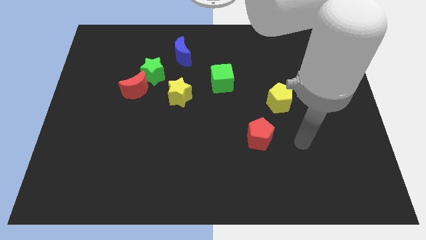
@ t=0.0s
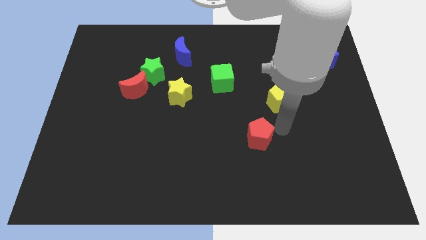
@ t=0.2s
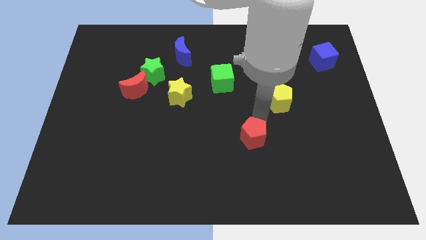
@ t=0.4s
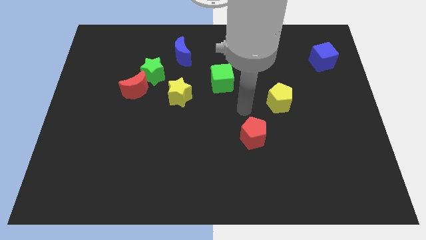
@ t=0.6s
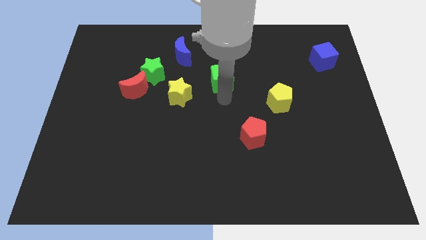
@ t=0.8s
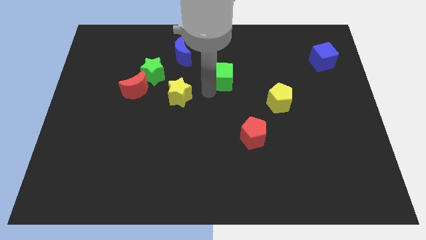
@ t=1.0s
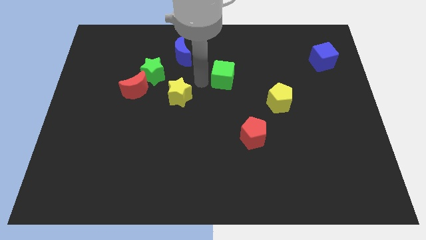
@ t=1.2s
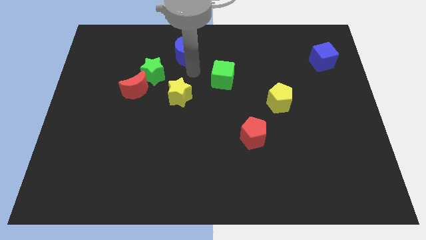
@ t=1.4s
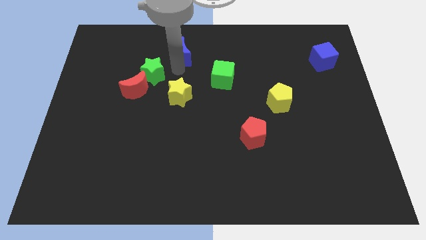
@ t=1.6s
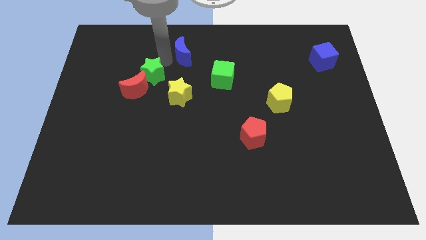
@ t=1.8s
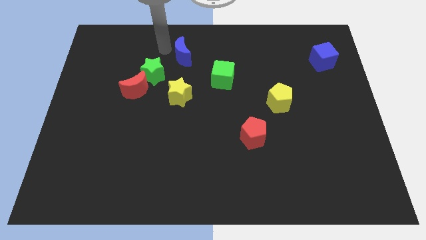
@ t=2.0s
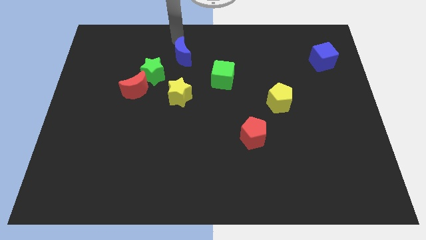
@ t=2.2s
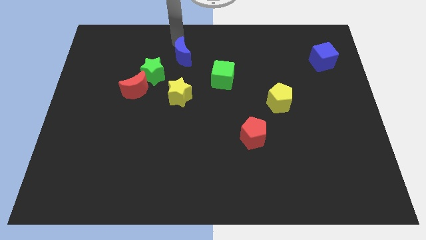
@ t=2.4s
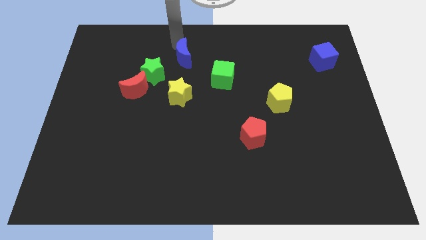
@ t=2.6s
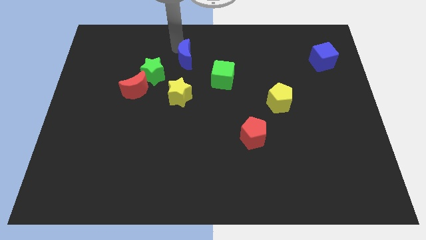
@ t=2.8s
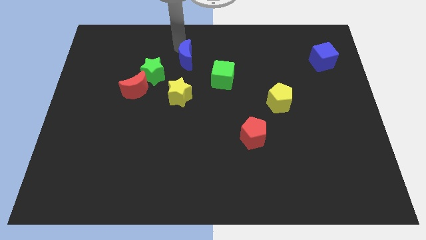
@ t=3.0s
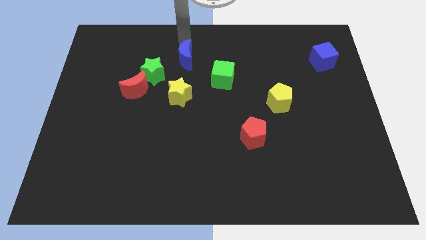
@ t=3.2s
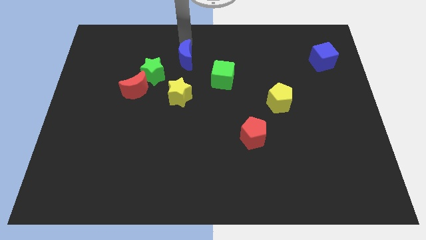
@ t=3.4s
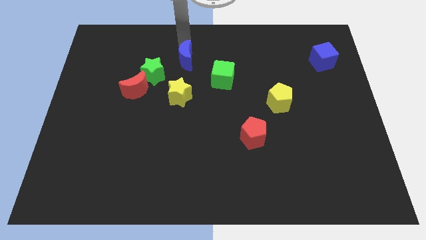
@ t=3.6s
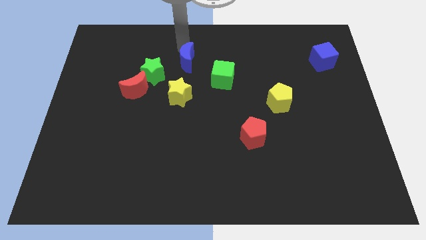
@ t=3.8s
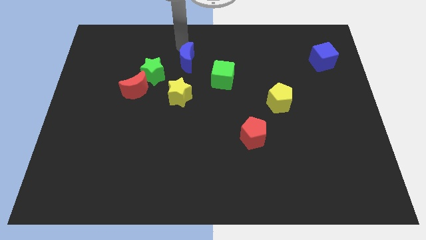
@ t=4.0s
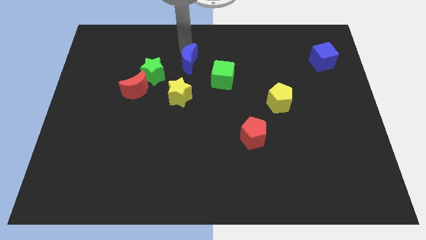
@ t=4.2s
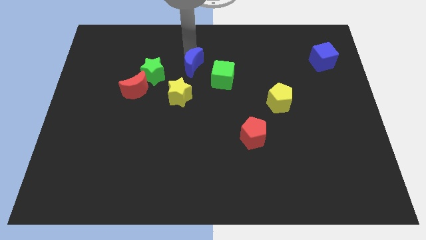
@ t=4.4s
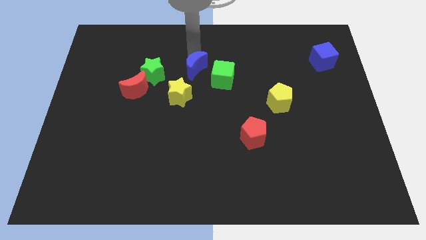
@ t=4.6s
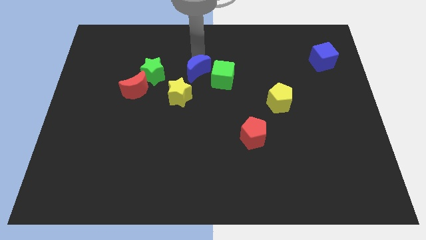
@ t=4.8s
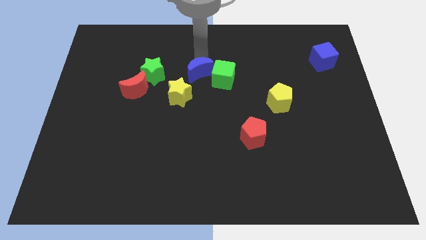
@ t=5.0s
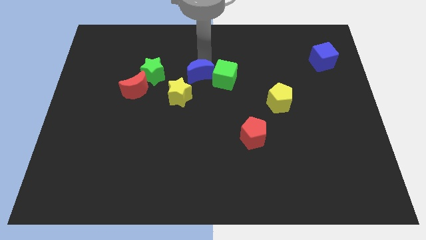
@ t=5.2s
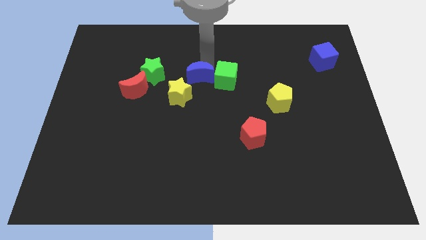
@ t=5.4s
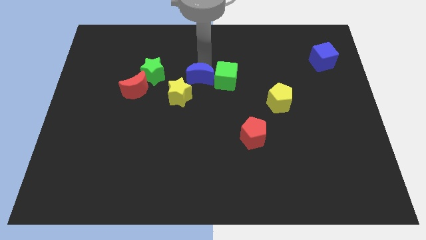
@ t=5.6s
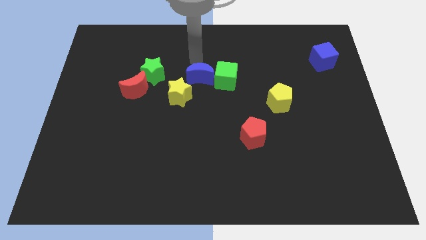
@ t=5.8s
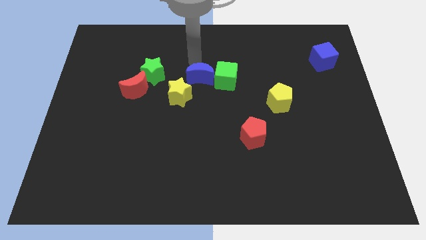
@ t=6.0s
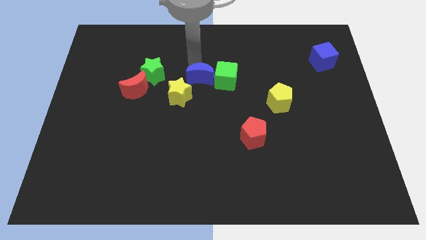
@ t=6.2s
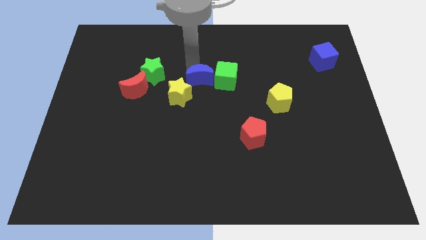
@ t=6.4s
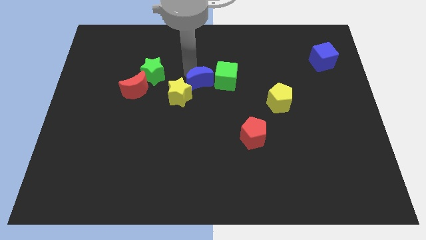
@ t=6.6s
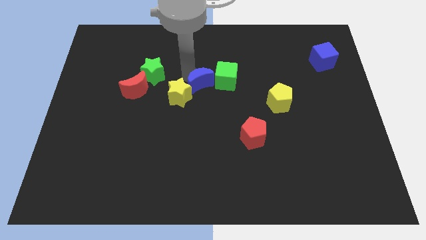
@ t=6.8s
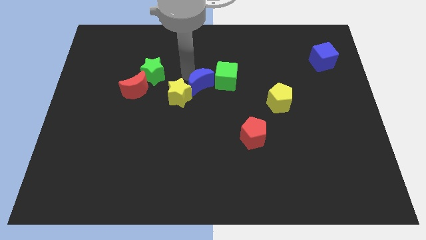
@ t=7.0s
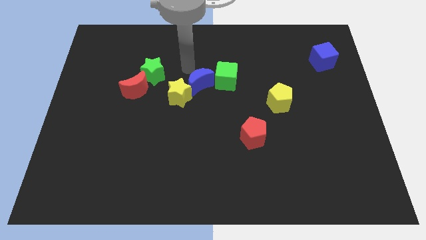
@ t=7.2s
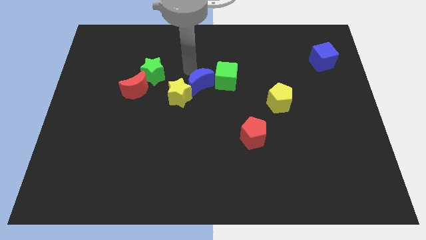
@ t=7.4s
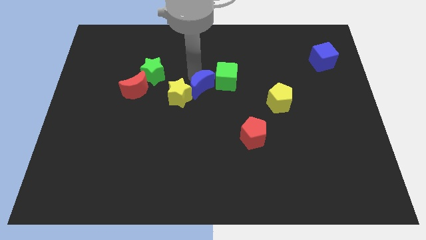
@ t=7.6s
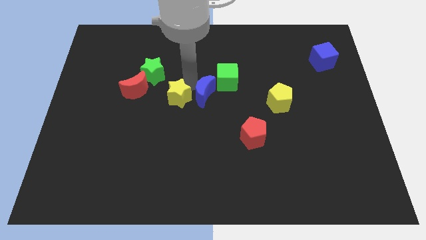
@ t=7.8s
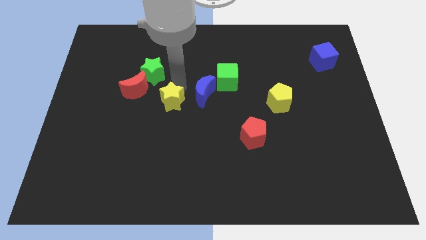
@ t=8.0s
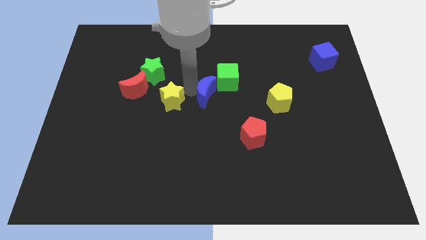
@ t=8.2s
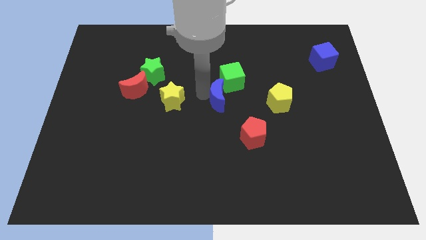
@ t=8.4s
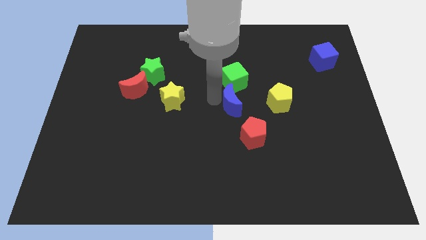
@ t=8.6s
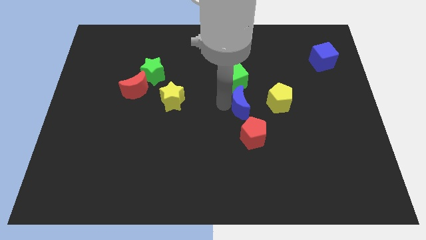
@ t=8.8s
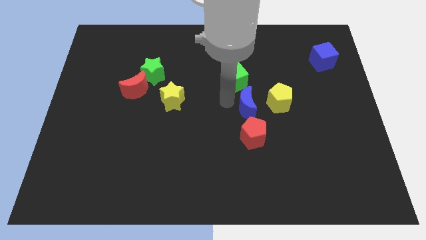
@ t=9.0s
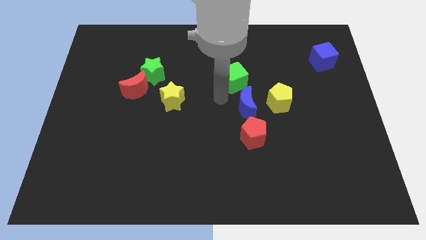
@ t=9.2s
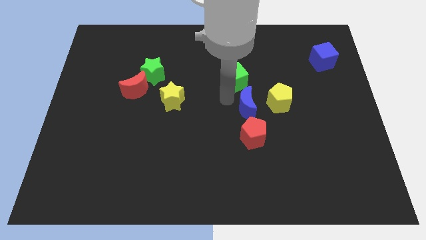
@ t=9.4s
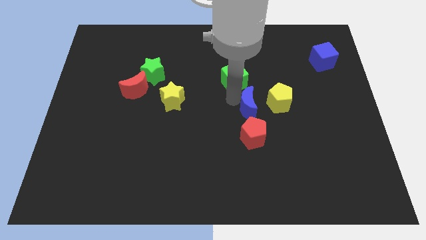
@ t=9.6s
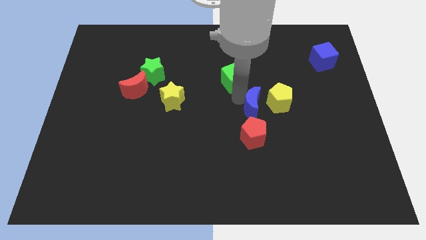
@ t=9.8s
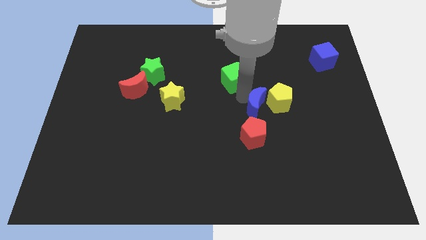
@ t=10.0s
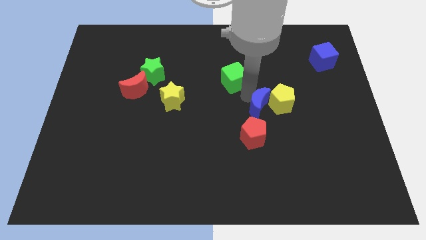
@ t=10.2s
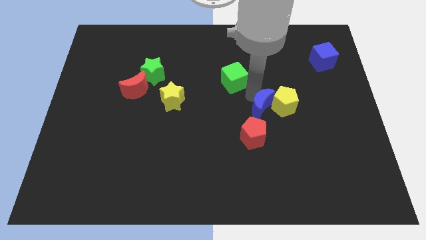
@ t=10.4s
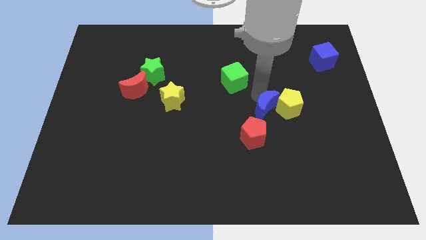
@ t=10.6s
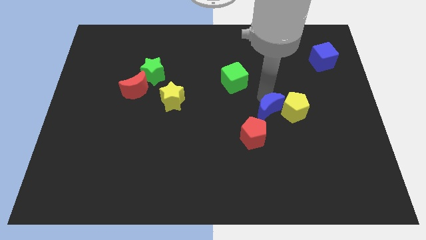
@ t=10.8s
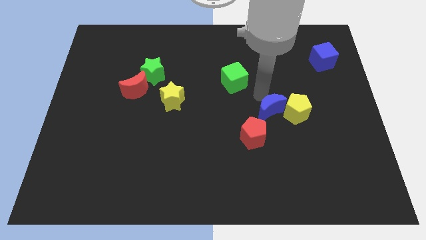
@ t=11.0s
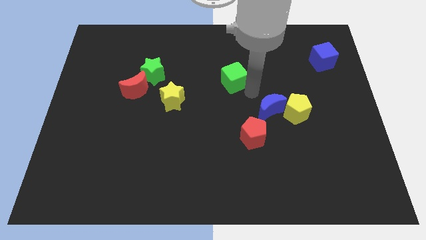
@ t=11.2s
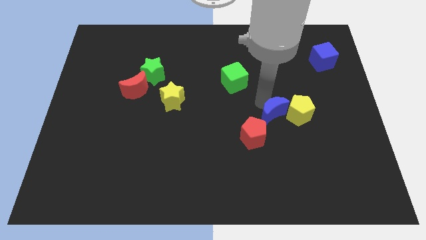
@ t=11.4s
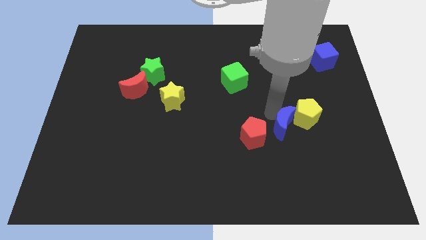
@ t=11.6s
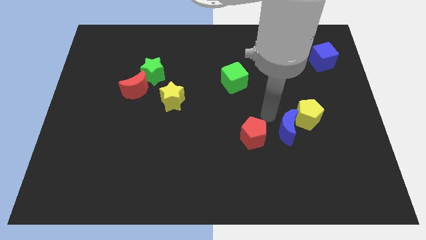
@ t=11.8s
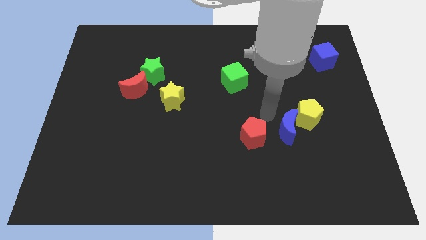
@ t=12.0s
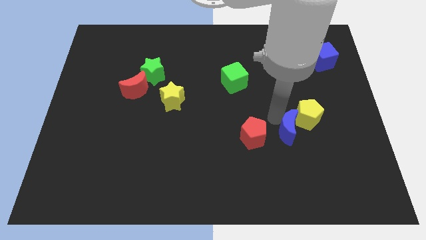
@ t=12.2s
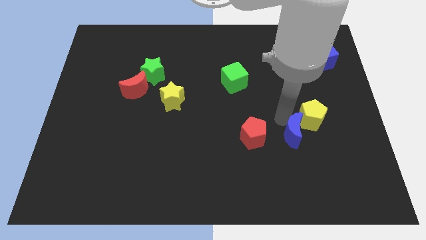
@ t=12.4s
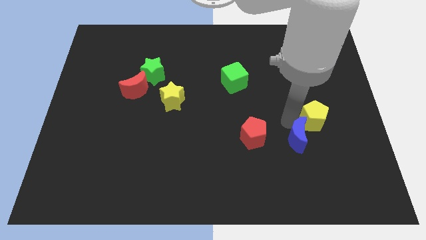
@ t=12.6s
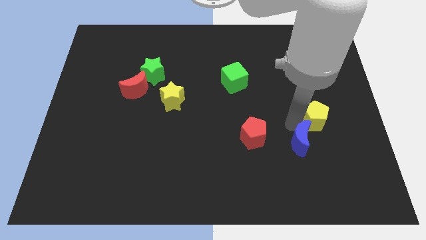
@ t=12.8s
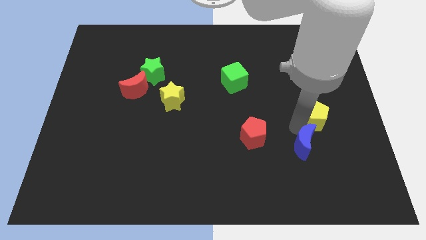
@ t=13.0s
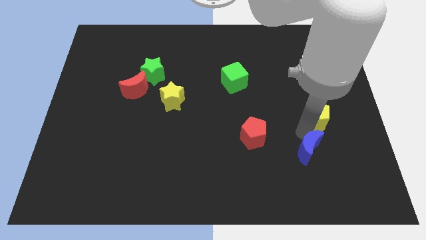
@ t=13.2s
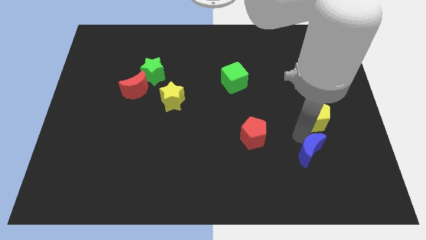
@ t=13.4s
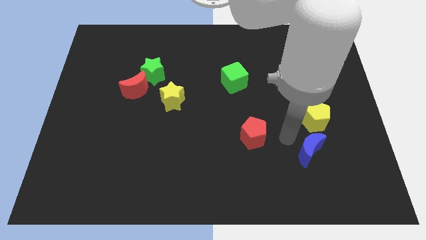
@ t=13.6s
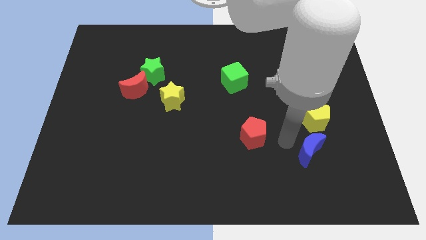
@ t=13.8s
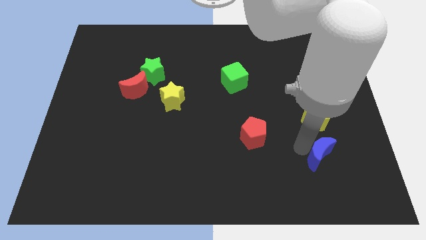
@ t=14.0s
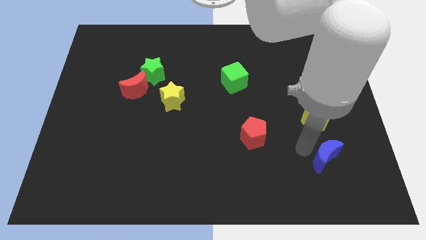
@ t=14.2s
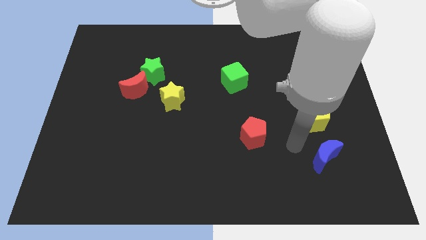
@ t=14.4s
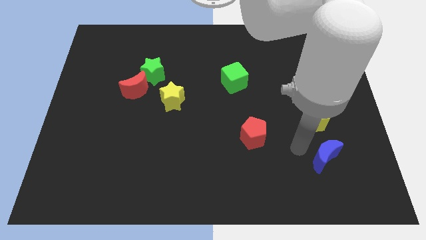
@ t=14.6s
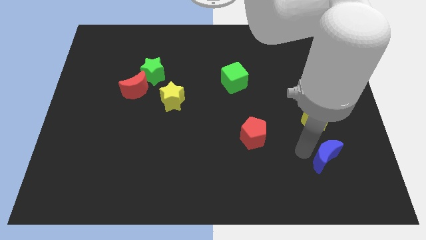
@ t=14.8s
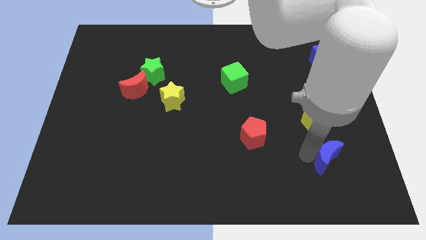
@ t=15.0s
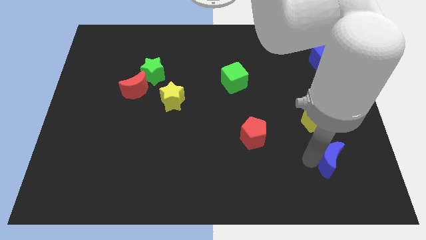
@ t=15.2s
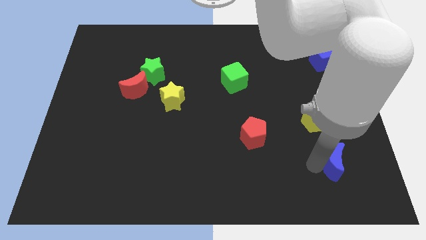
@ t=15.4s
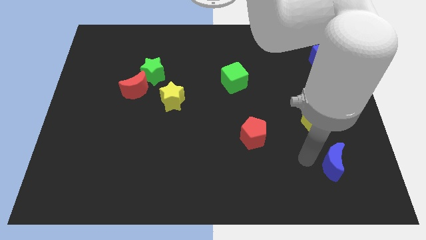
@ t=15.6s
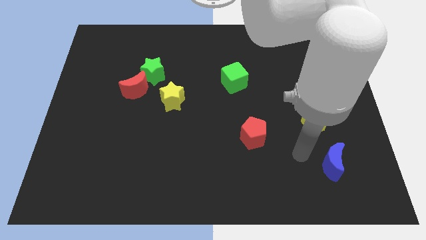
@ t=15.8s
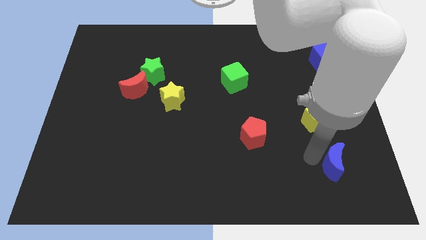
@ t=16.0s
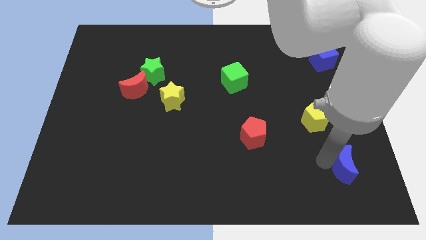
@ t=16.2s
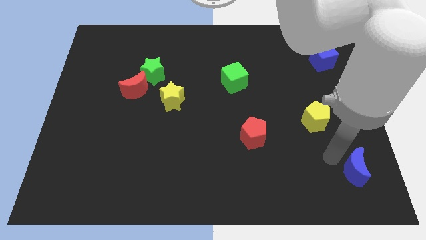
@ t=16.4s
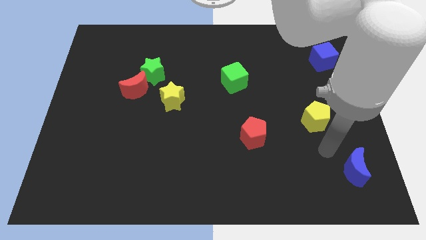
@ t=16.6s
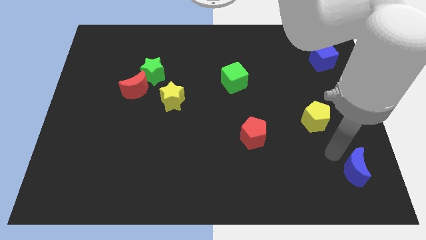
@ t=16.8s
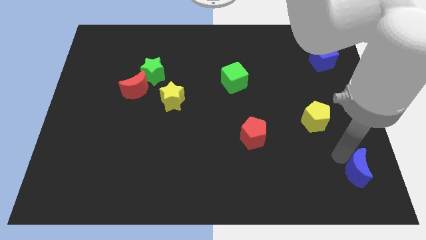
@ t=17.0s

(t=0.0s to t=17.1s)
move the blue moon to the bottom right
